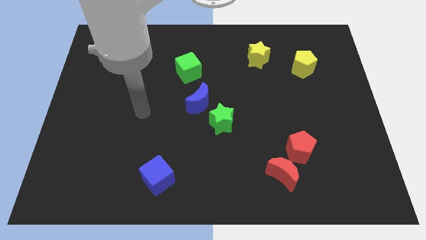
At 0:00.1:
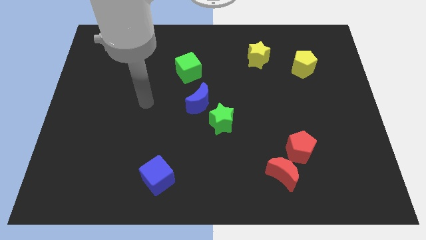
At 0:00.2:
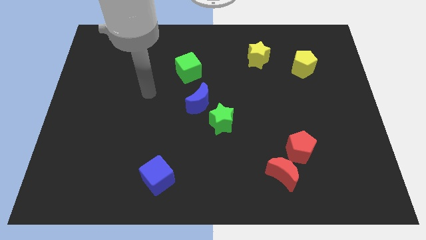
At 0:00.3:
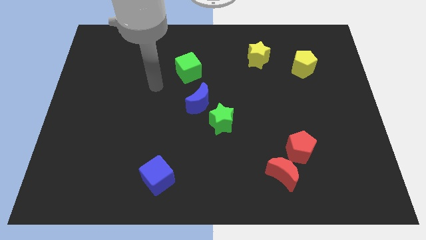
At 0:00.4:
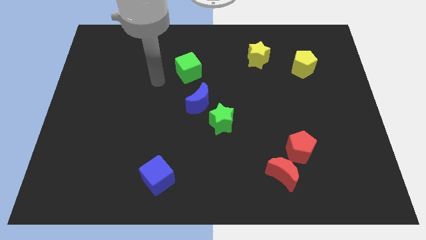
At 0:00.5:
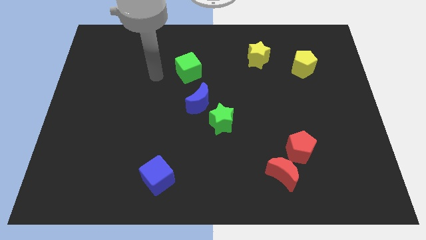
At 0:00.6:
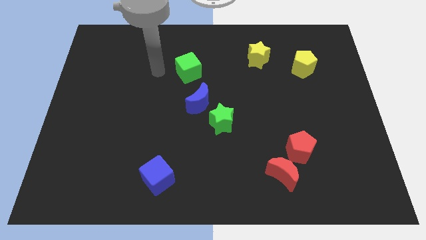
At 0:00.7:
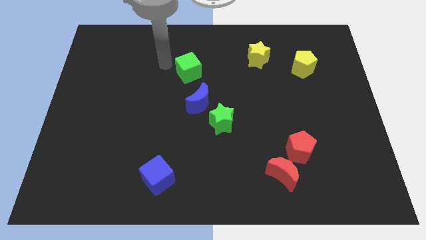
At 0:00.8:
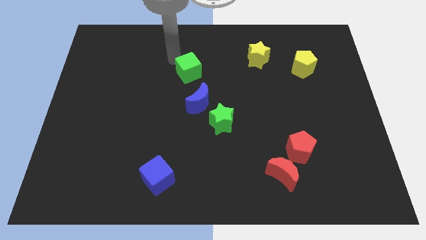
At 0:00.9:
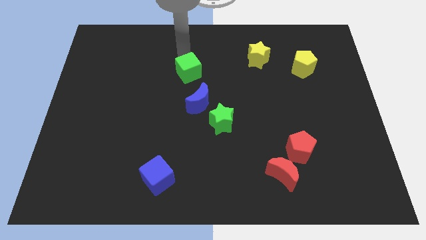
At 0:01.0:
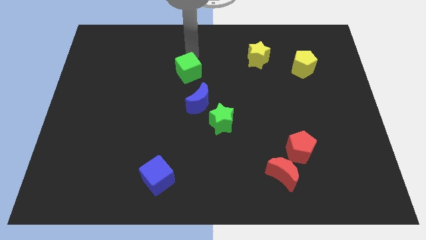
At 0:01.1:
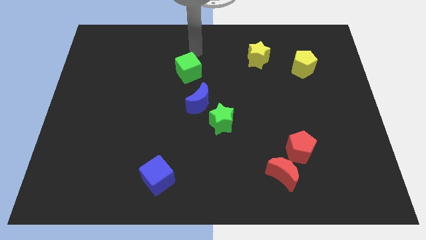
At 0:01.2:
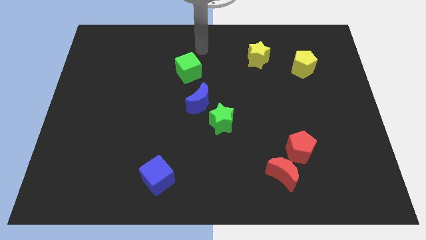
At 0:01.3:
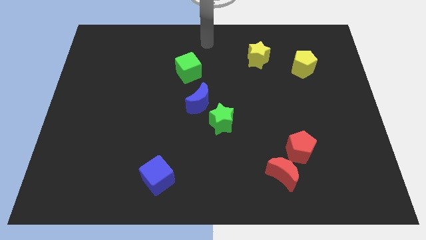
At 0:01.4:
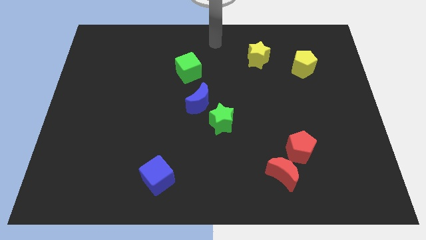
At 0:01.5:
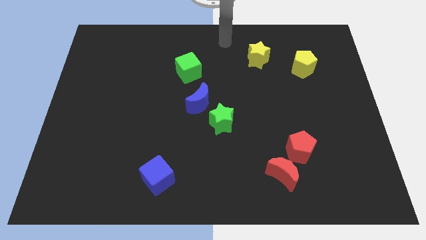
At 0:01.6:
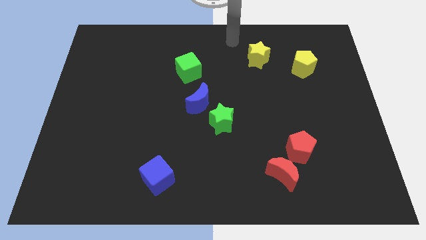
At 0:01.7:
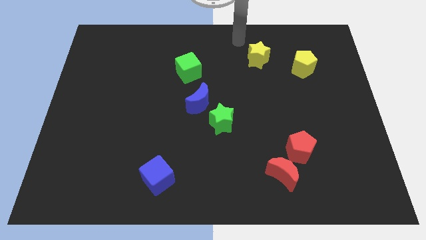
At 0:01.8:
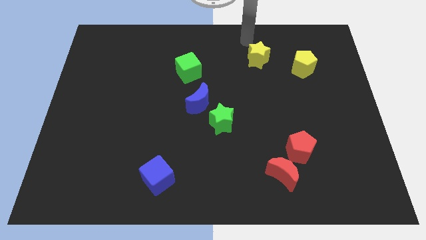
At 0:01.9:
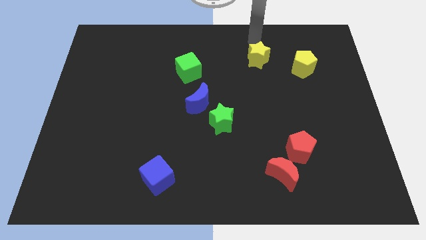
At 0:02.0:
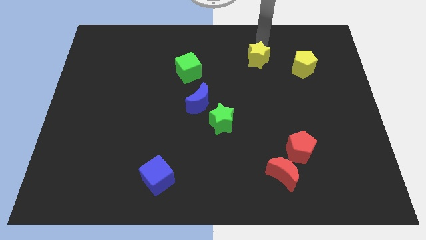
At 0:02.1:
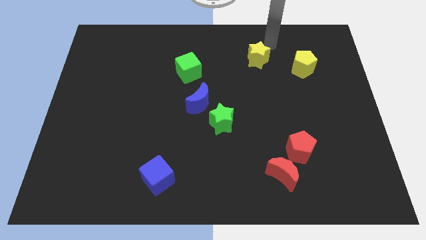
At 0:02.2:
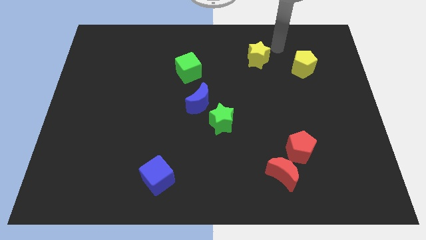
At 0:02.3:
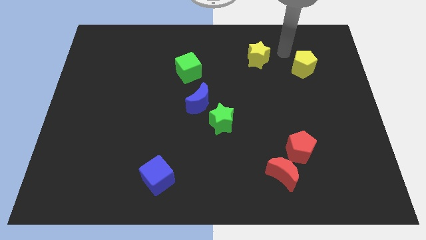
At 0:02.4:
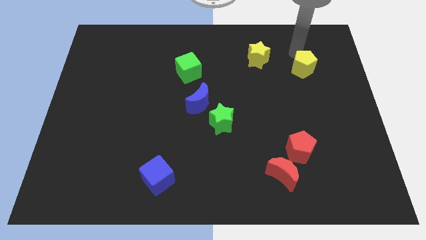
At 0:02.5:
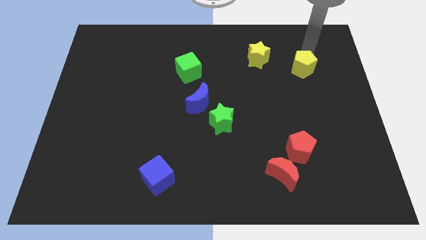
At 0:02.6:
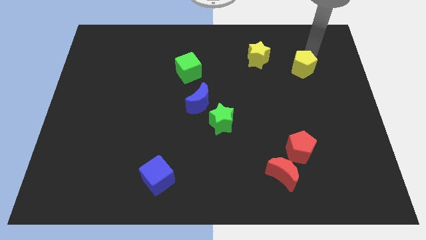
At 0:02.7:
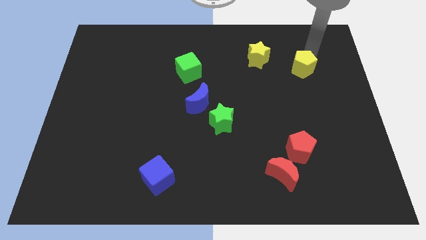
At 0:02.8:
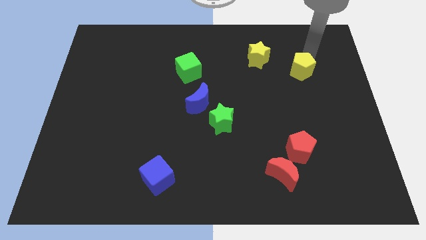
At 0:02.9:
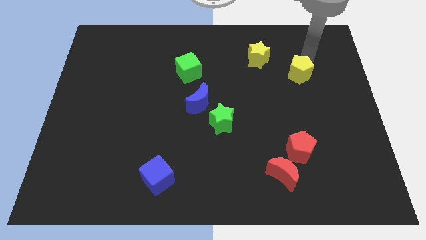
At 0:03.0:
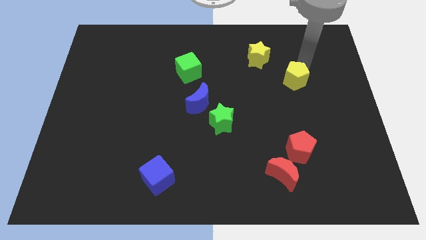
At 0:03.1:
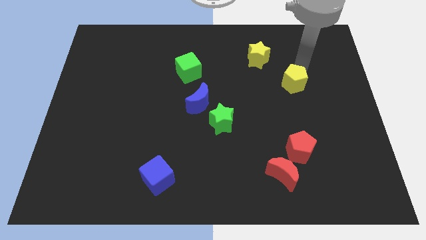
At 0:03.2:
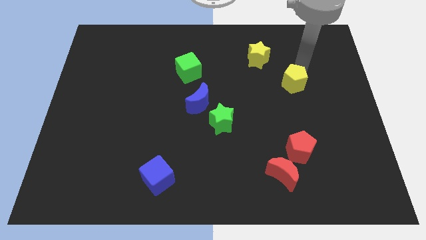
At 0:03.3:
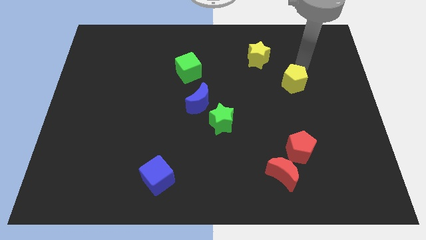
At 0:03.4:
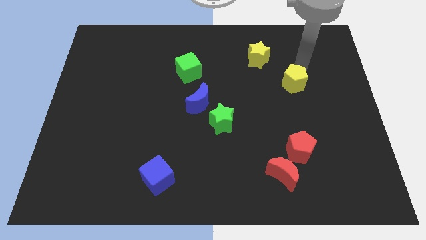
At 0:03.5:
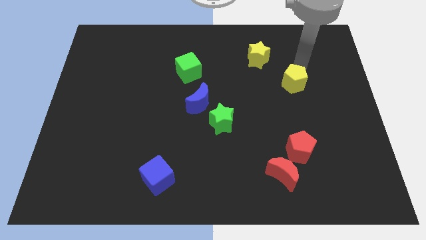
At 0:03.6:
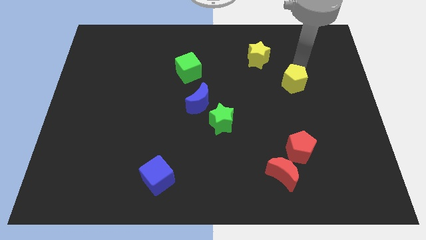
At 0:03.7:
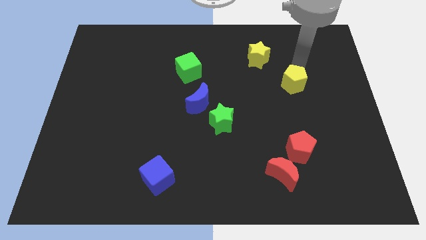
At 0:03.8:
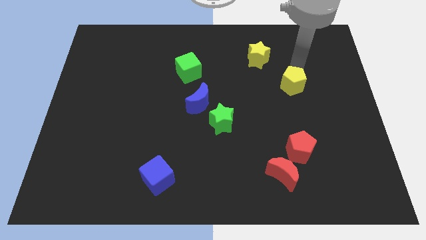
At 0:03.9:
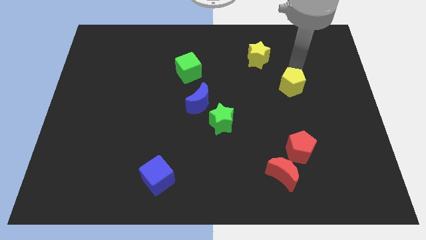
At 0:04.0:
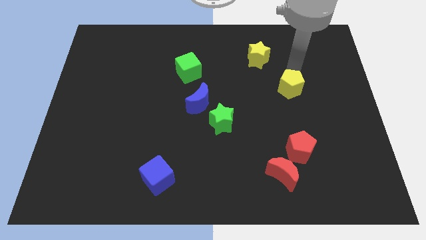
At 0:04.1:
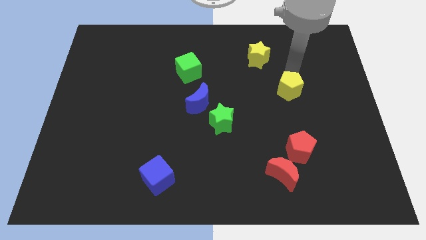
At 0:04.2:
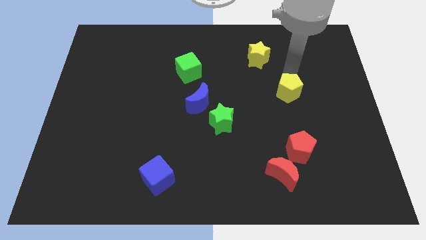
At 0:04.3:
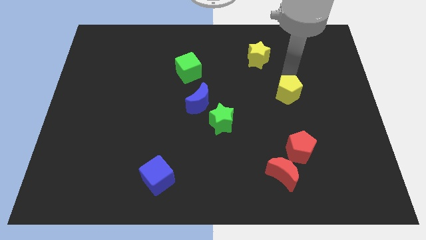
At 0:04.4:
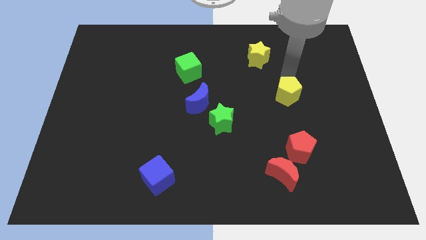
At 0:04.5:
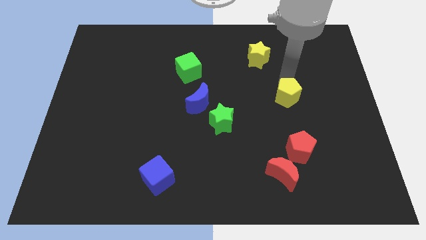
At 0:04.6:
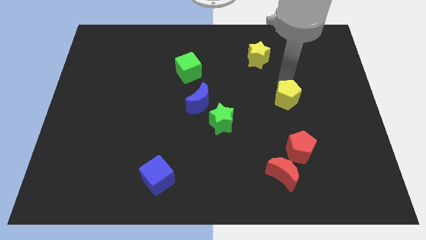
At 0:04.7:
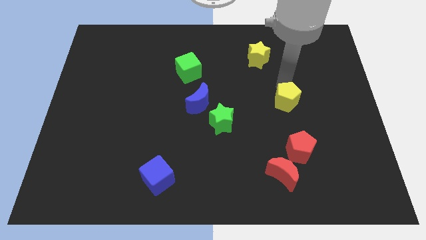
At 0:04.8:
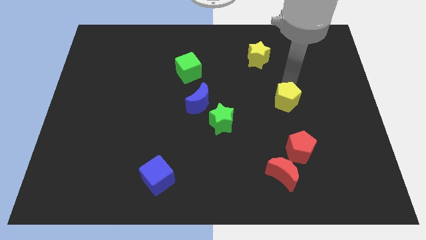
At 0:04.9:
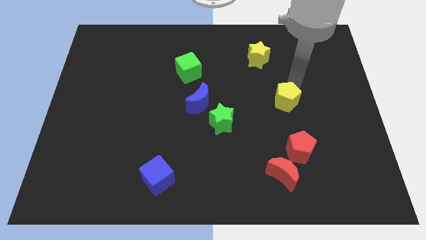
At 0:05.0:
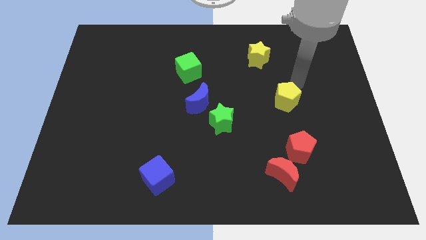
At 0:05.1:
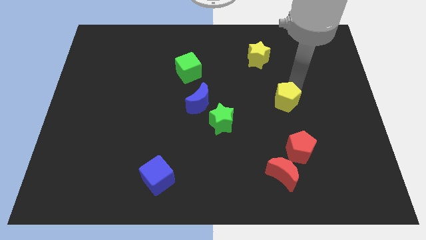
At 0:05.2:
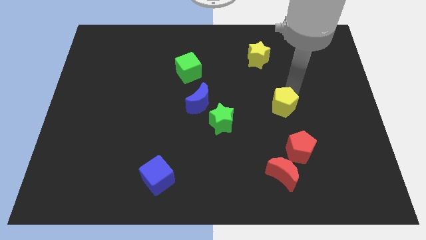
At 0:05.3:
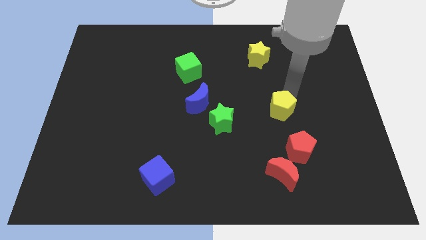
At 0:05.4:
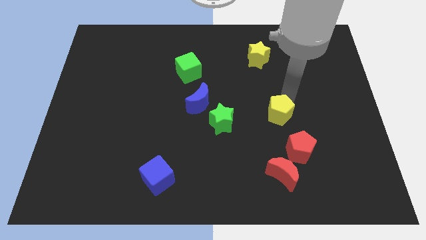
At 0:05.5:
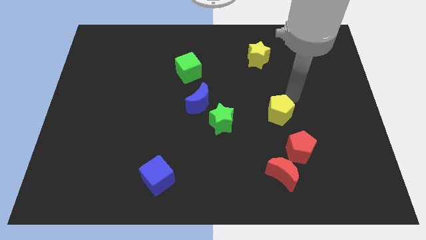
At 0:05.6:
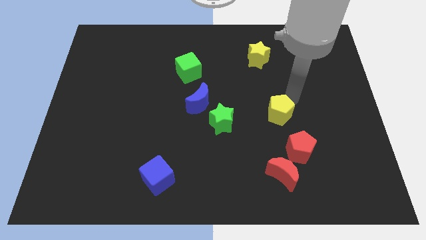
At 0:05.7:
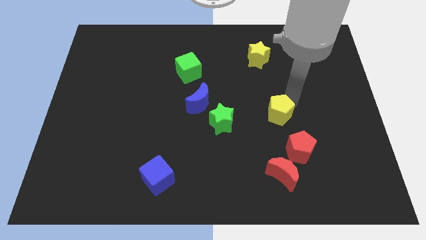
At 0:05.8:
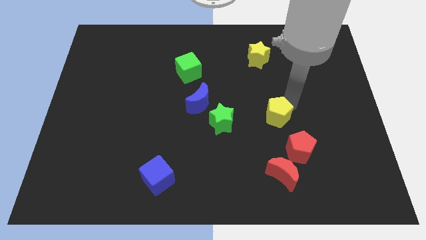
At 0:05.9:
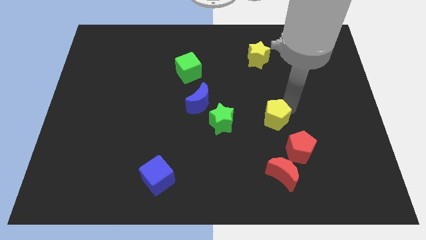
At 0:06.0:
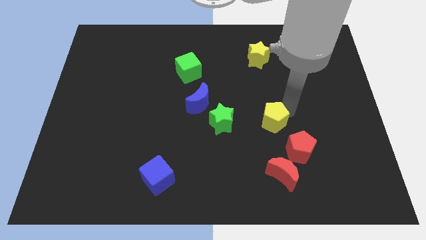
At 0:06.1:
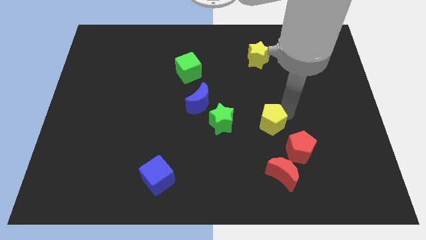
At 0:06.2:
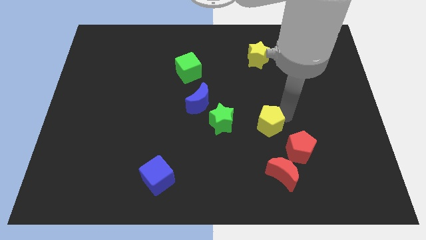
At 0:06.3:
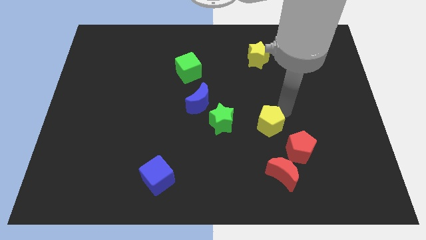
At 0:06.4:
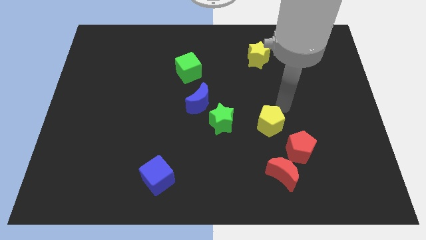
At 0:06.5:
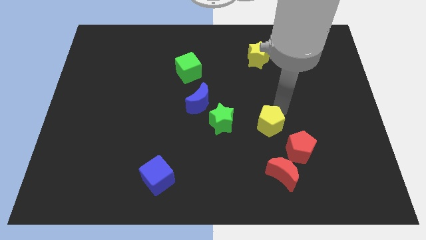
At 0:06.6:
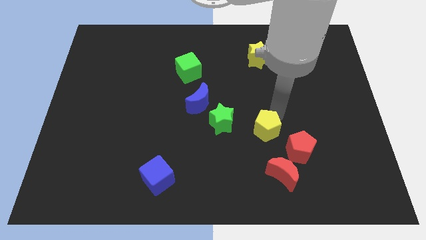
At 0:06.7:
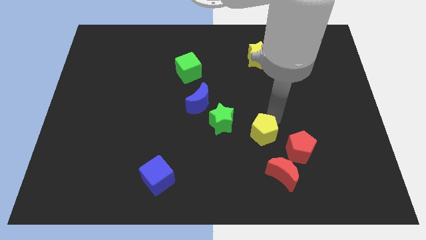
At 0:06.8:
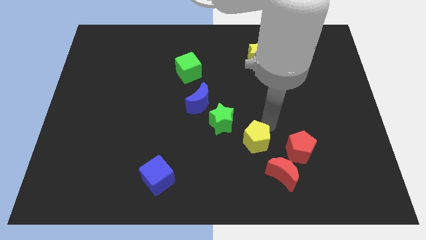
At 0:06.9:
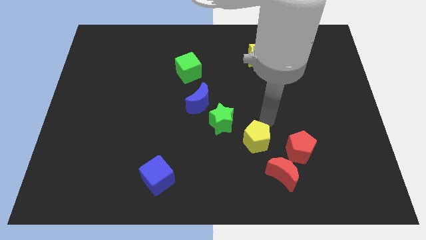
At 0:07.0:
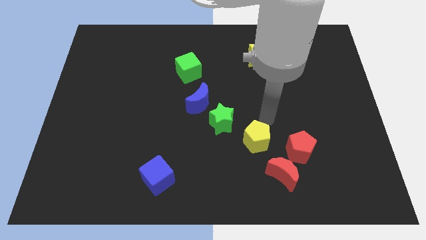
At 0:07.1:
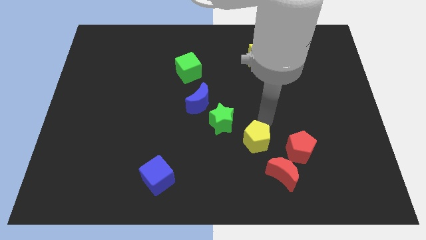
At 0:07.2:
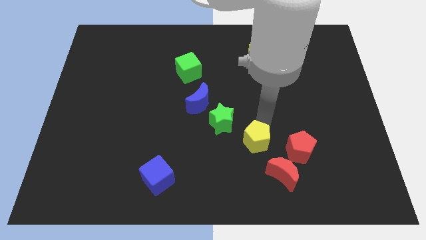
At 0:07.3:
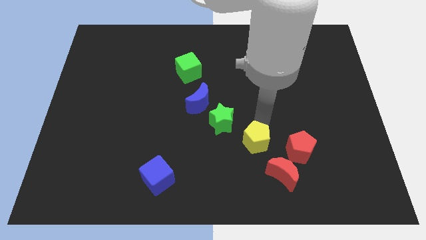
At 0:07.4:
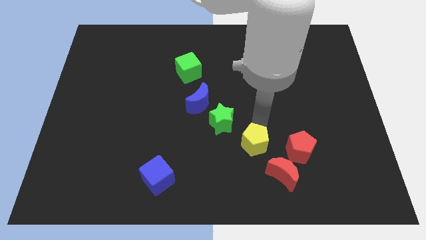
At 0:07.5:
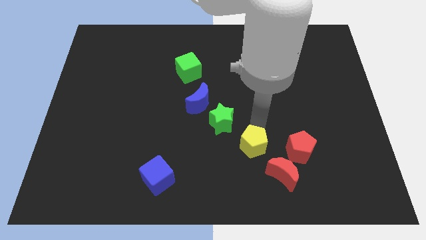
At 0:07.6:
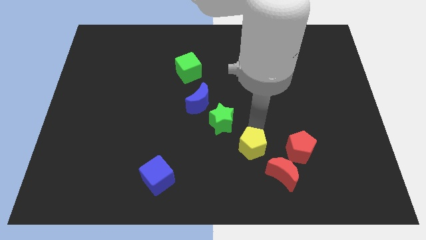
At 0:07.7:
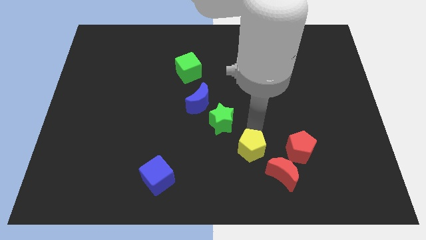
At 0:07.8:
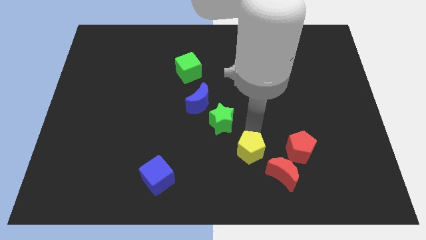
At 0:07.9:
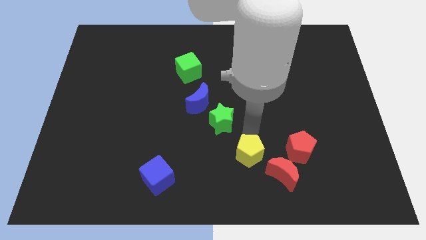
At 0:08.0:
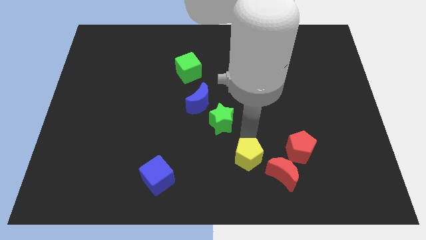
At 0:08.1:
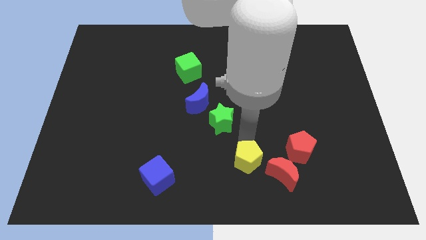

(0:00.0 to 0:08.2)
push the yellow pentagon to the bottom side
